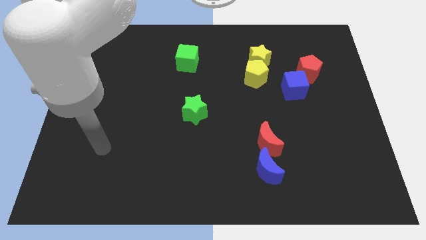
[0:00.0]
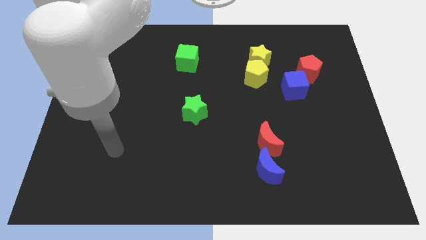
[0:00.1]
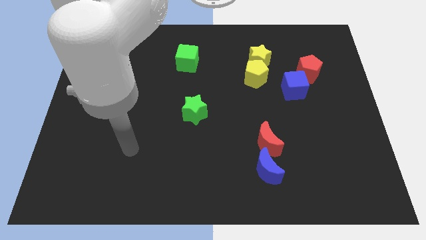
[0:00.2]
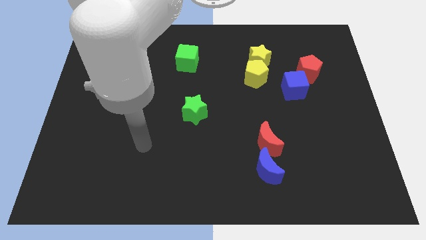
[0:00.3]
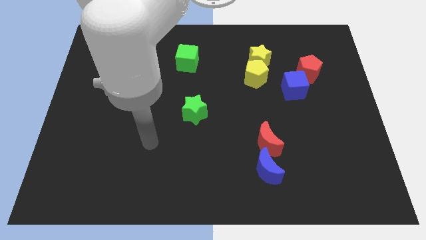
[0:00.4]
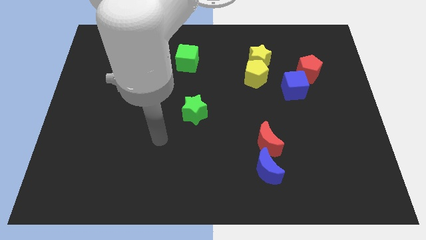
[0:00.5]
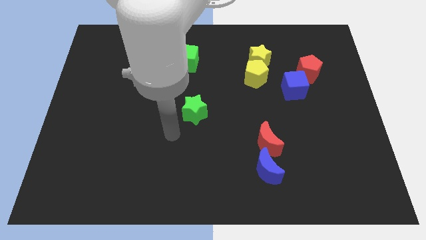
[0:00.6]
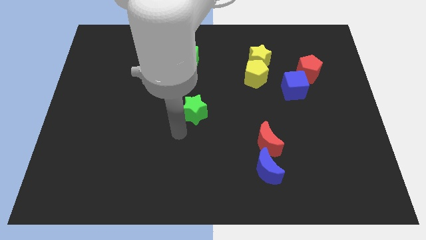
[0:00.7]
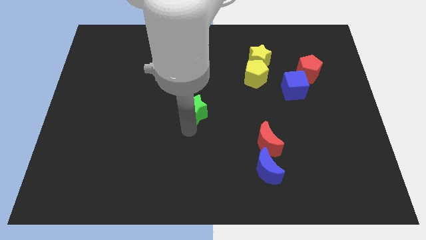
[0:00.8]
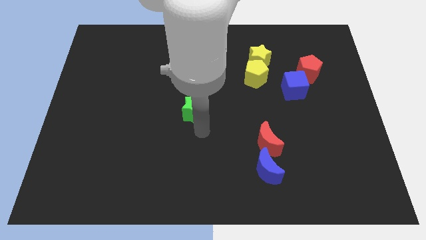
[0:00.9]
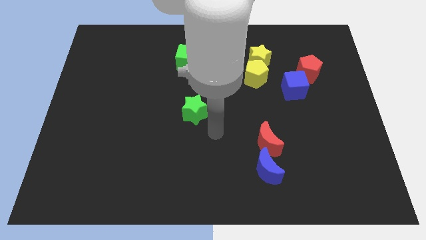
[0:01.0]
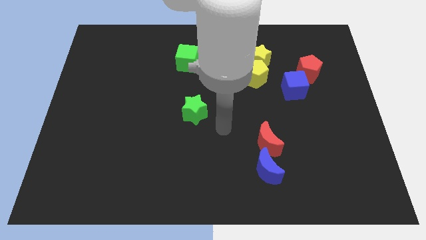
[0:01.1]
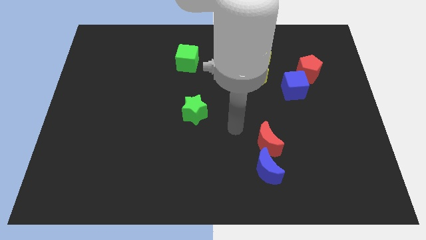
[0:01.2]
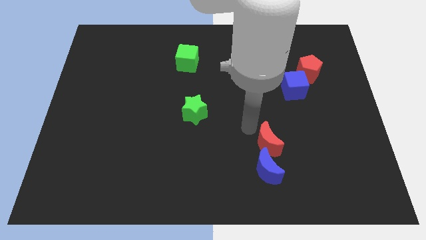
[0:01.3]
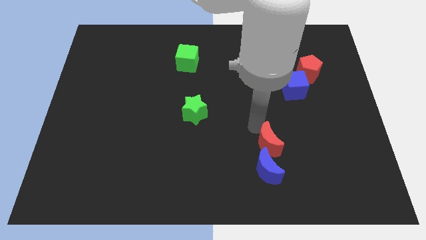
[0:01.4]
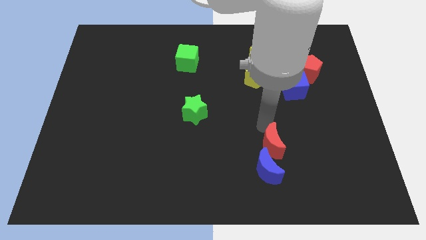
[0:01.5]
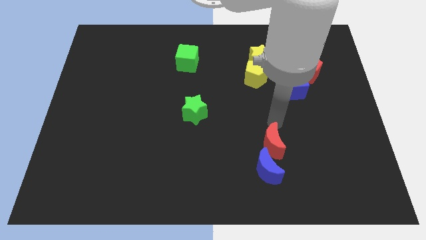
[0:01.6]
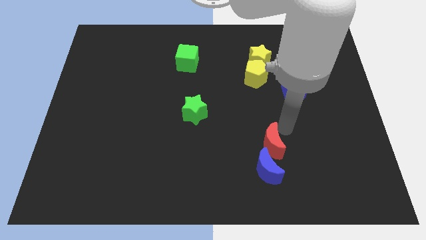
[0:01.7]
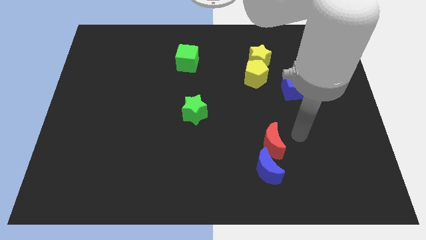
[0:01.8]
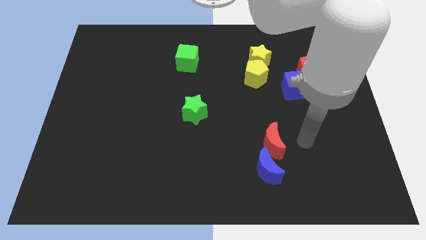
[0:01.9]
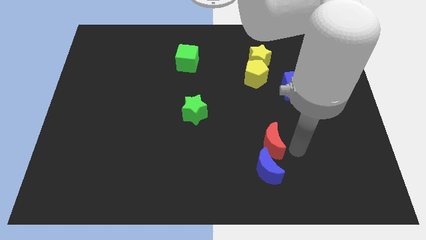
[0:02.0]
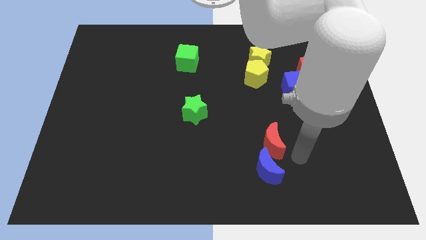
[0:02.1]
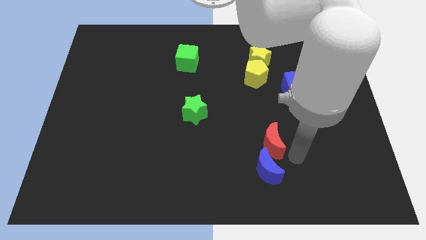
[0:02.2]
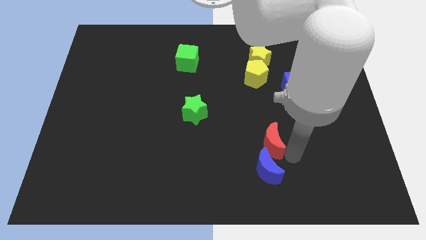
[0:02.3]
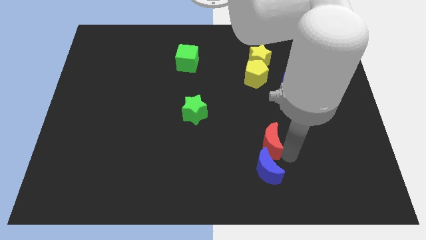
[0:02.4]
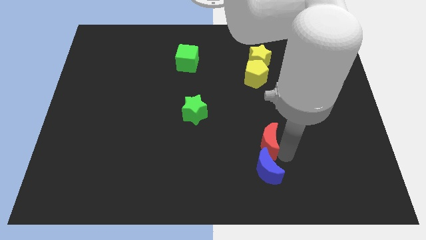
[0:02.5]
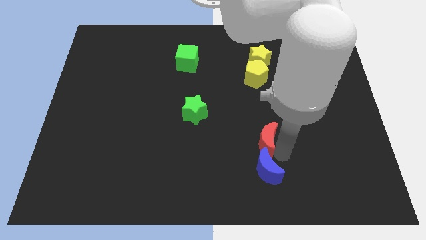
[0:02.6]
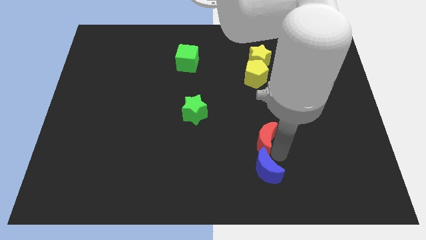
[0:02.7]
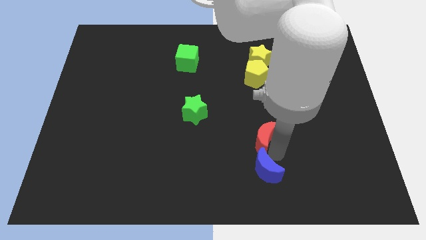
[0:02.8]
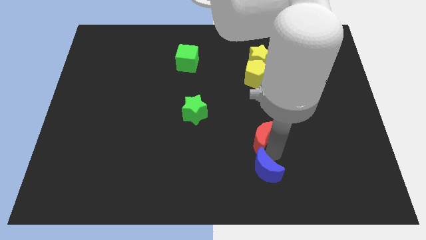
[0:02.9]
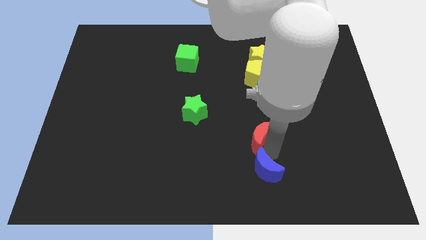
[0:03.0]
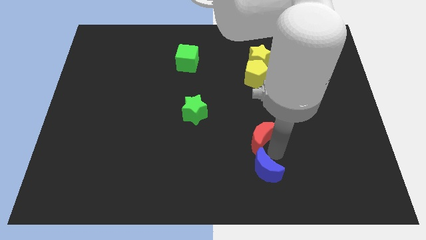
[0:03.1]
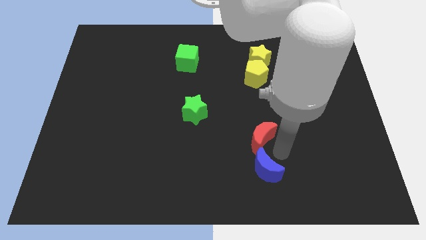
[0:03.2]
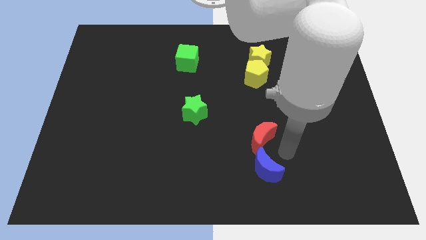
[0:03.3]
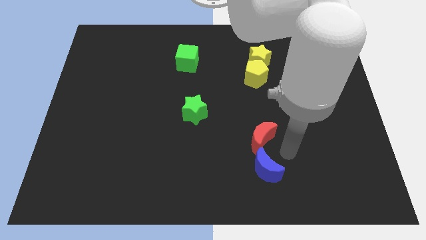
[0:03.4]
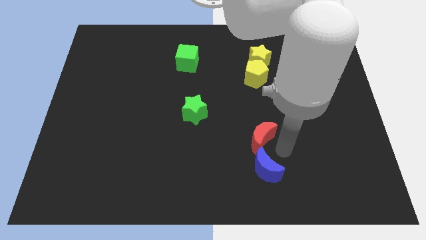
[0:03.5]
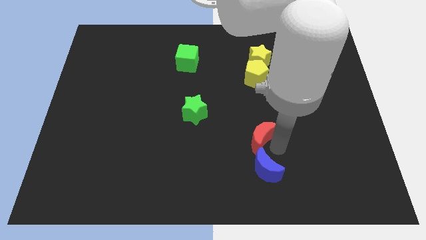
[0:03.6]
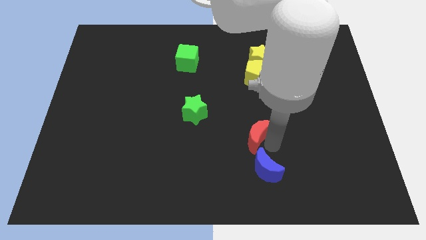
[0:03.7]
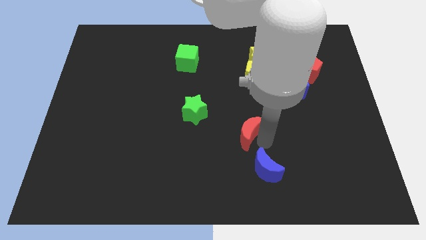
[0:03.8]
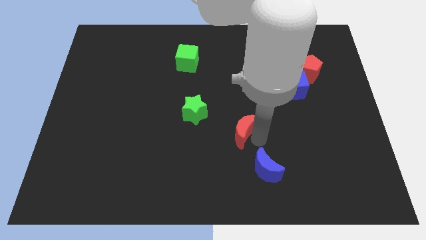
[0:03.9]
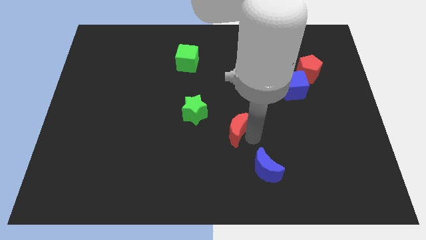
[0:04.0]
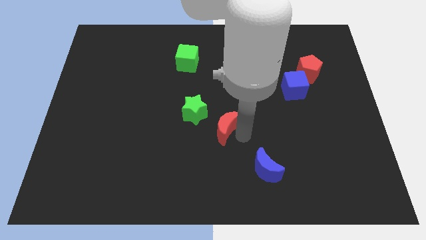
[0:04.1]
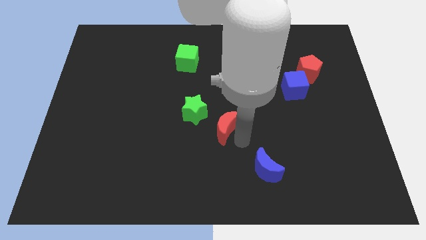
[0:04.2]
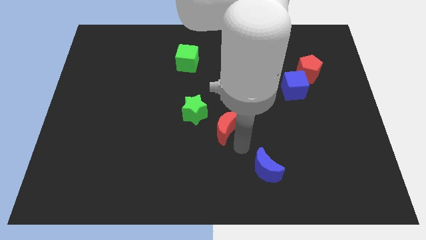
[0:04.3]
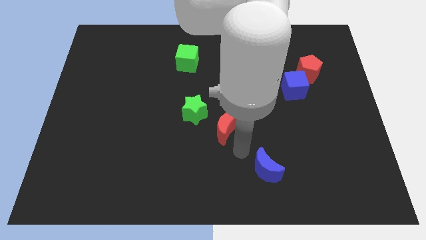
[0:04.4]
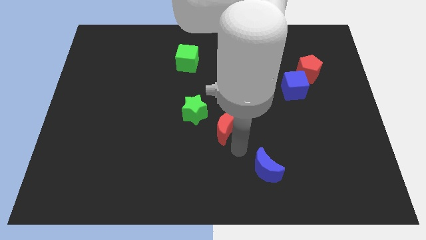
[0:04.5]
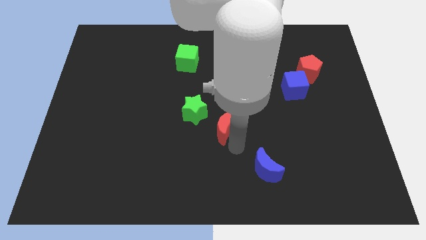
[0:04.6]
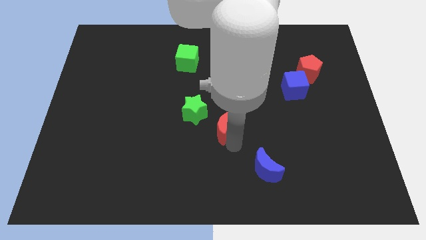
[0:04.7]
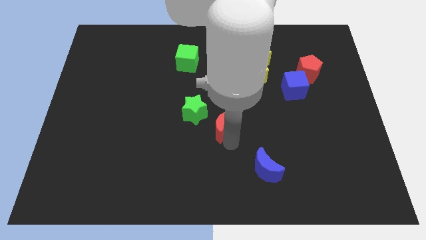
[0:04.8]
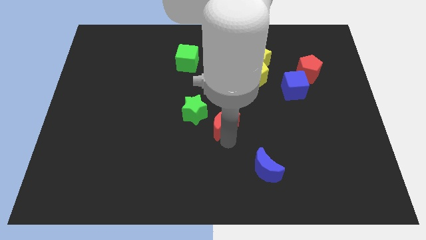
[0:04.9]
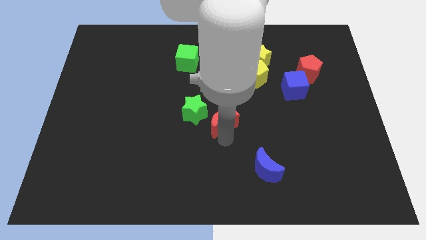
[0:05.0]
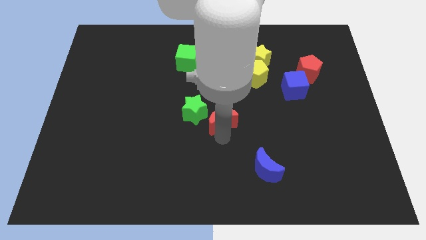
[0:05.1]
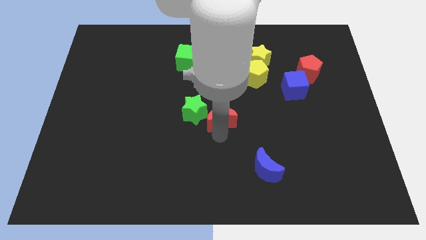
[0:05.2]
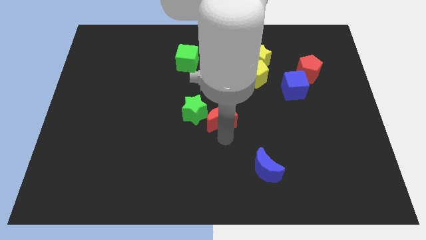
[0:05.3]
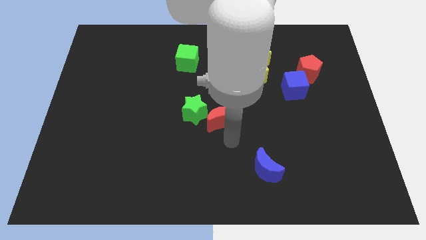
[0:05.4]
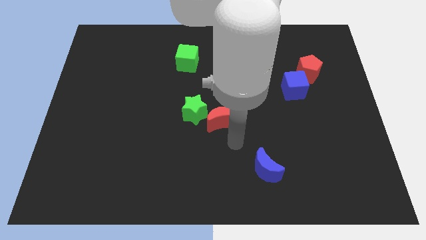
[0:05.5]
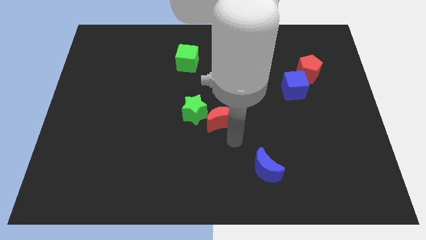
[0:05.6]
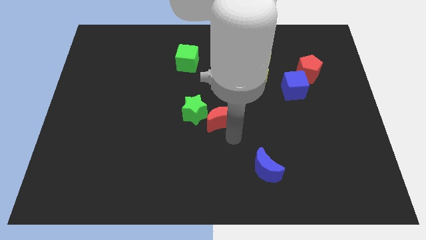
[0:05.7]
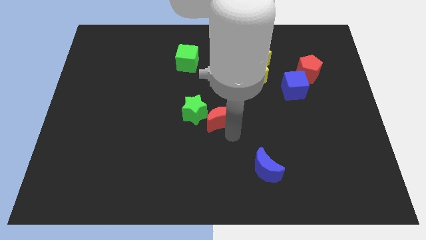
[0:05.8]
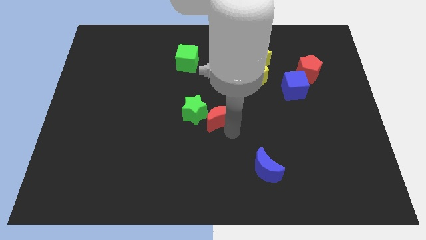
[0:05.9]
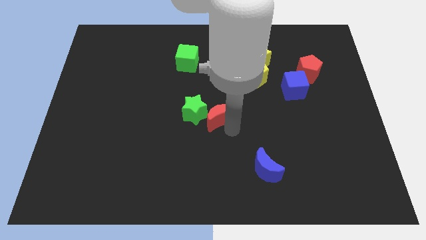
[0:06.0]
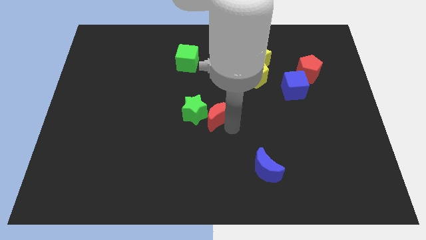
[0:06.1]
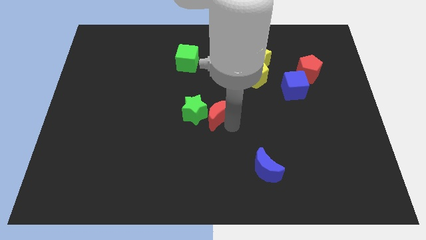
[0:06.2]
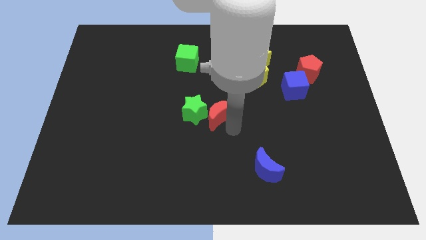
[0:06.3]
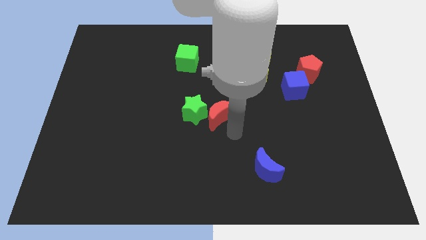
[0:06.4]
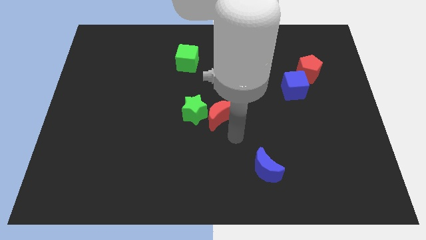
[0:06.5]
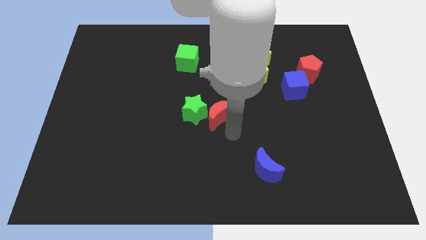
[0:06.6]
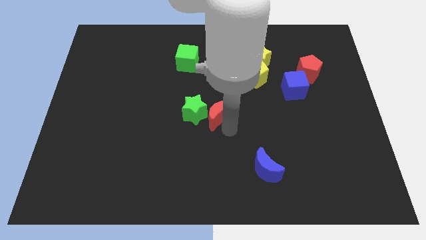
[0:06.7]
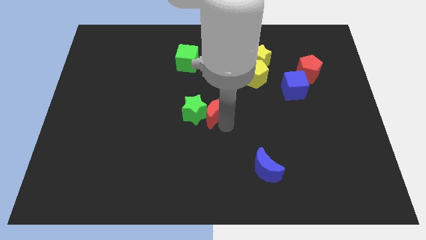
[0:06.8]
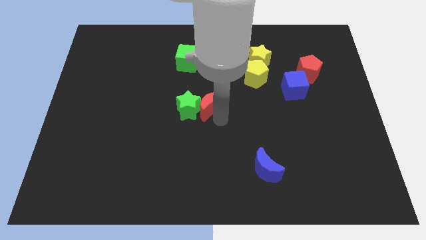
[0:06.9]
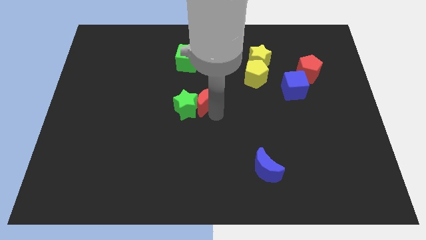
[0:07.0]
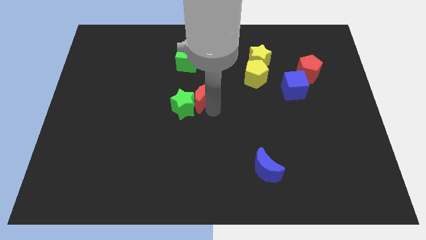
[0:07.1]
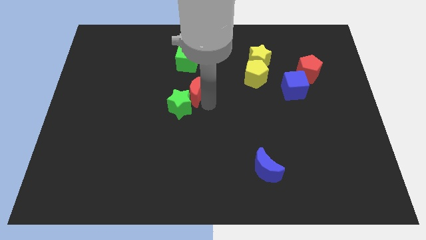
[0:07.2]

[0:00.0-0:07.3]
slide the red moon up and then to the left

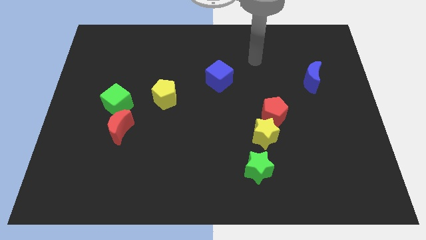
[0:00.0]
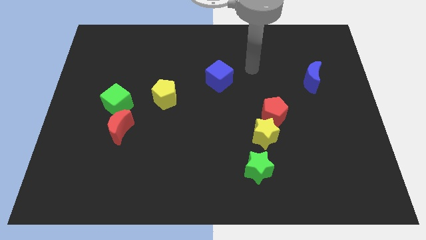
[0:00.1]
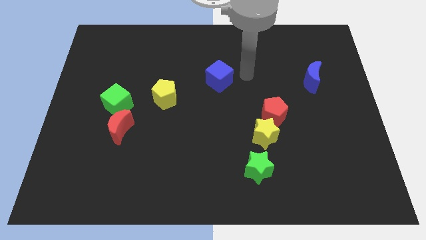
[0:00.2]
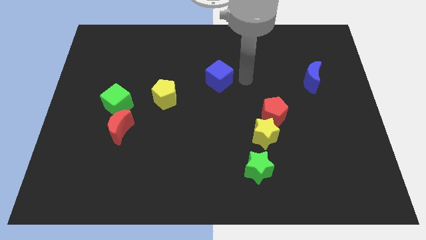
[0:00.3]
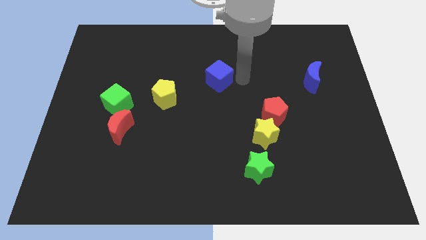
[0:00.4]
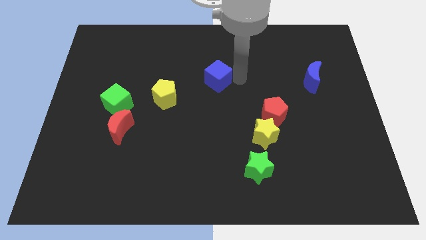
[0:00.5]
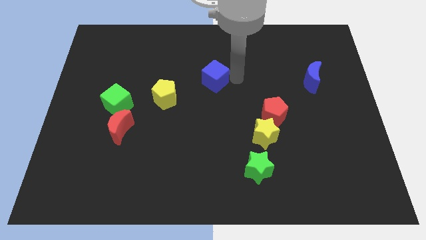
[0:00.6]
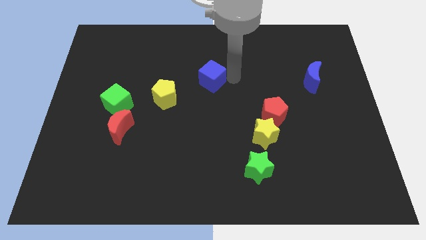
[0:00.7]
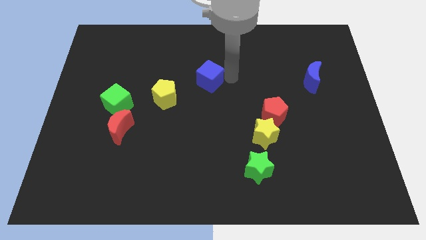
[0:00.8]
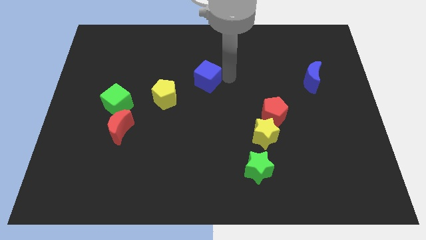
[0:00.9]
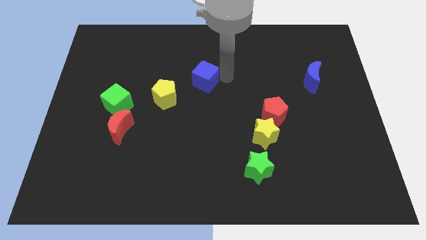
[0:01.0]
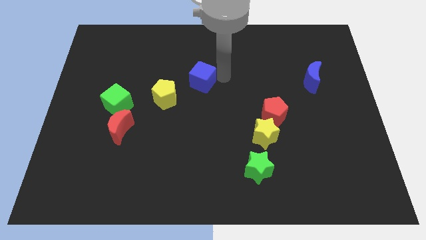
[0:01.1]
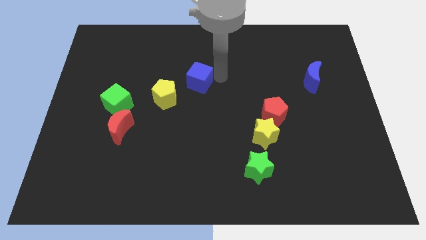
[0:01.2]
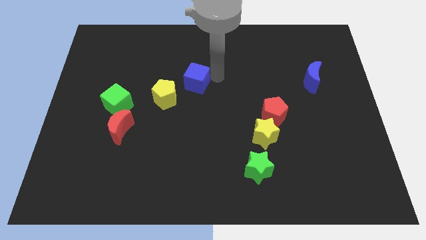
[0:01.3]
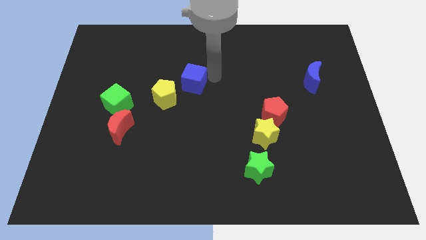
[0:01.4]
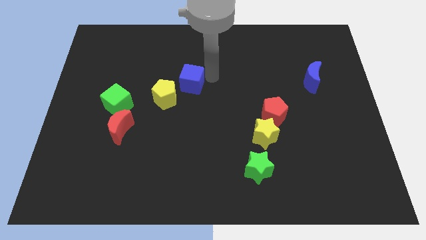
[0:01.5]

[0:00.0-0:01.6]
slightly push the blue cube to the left
